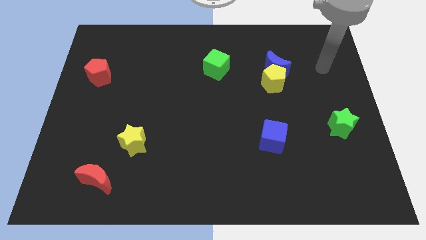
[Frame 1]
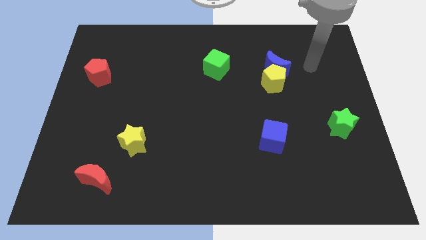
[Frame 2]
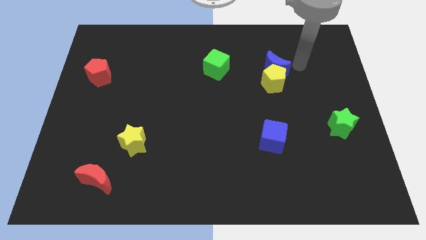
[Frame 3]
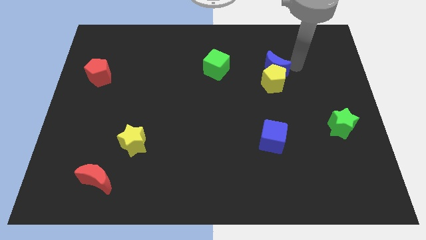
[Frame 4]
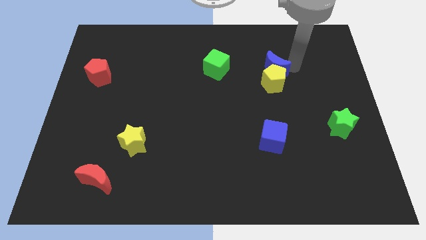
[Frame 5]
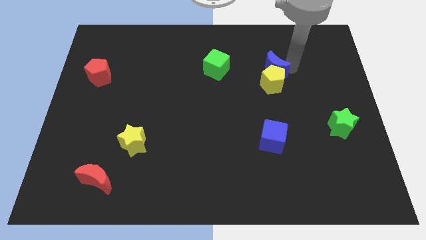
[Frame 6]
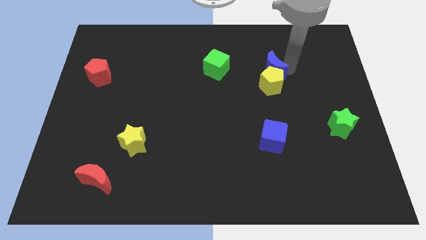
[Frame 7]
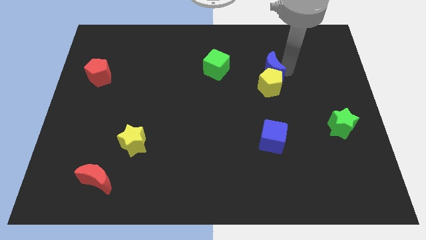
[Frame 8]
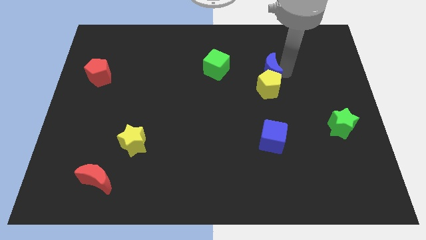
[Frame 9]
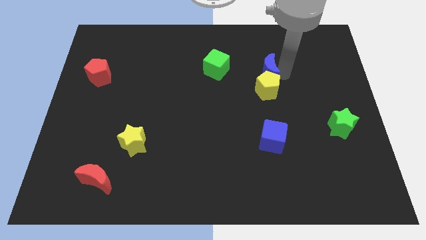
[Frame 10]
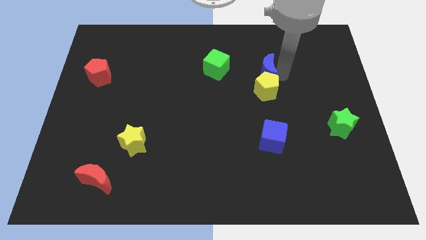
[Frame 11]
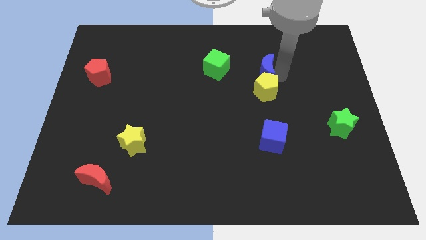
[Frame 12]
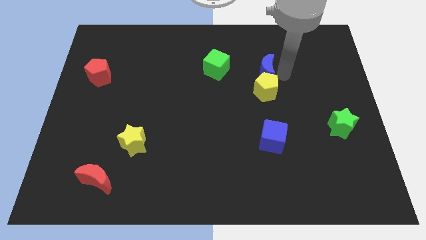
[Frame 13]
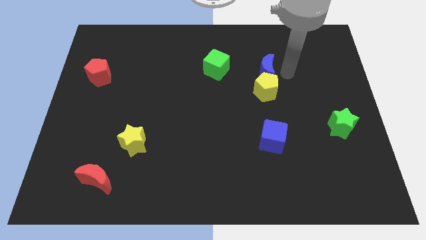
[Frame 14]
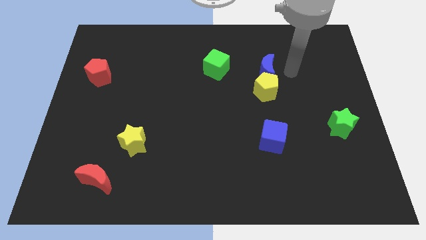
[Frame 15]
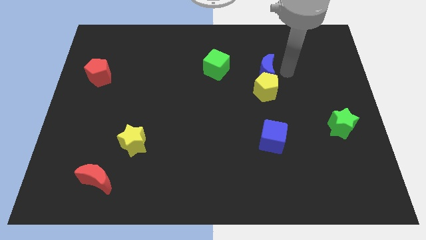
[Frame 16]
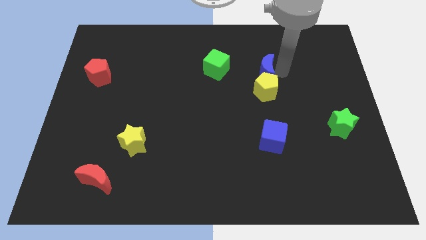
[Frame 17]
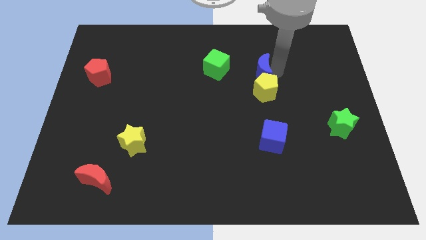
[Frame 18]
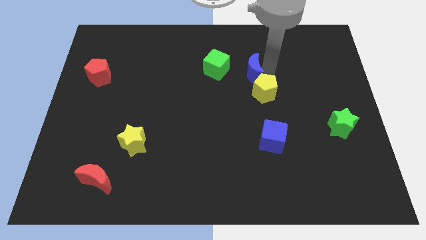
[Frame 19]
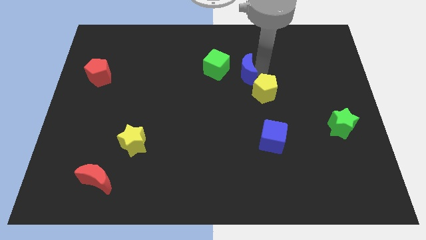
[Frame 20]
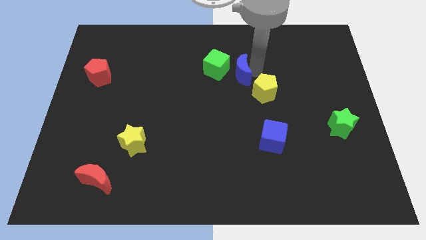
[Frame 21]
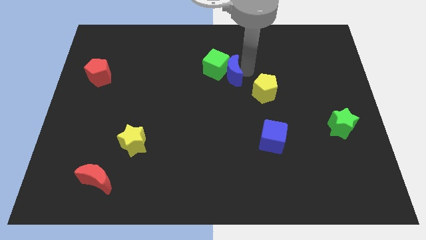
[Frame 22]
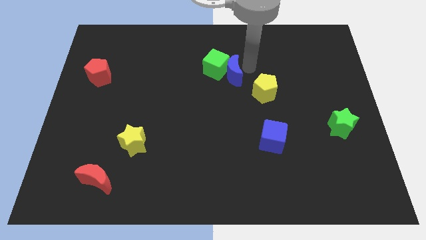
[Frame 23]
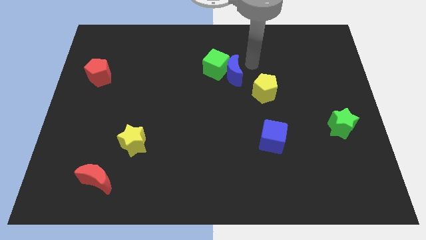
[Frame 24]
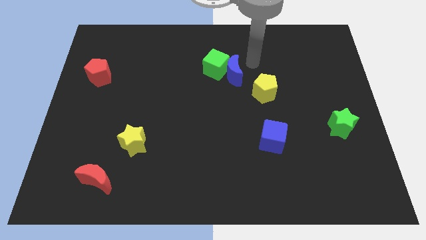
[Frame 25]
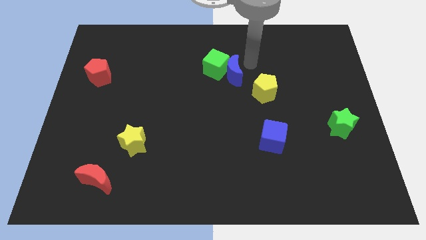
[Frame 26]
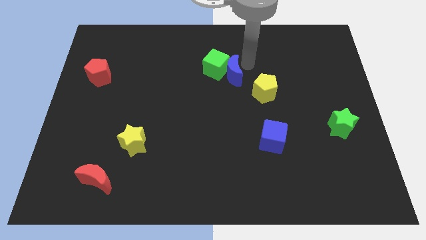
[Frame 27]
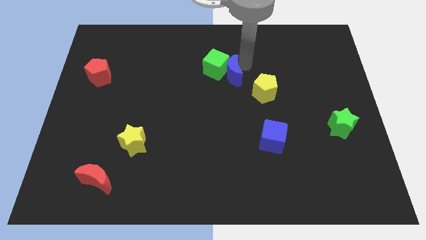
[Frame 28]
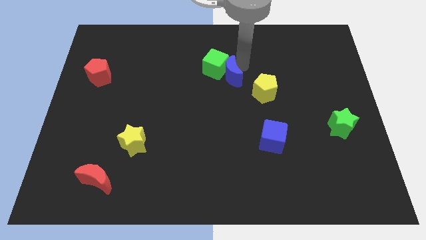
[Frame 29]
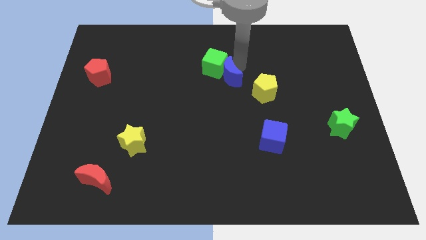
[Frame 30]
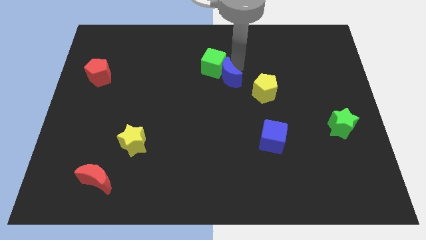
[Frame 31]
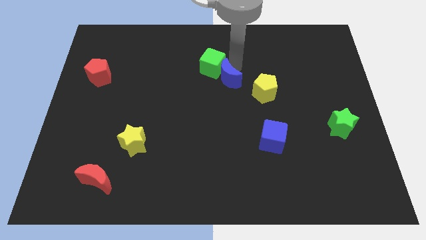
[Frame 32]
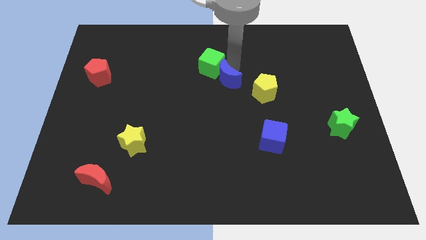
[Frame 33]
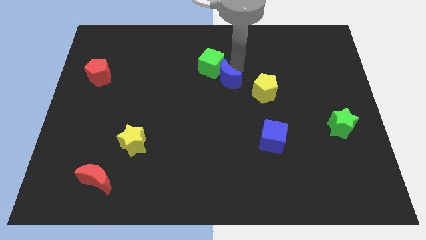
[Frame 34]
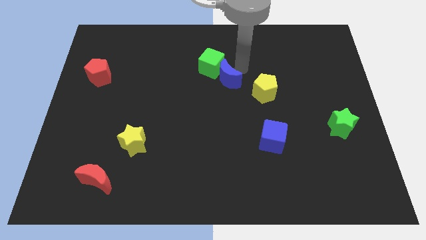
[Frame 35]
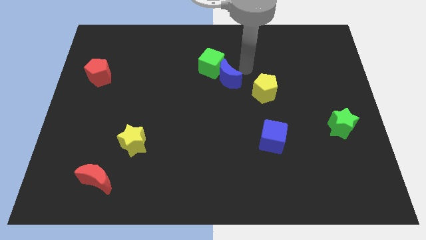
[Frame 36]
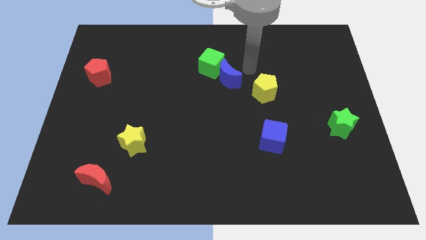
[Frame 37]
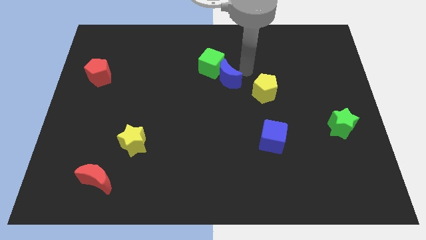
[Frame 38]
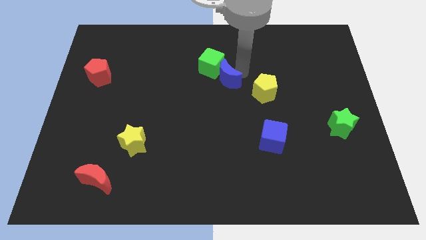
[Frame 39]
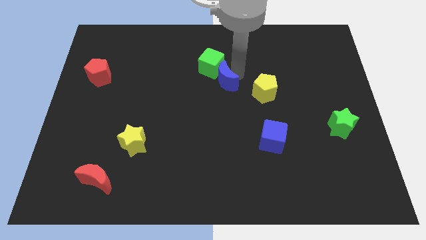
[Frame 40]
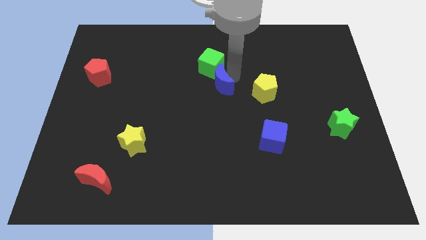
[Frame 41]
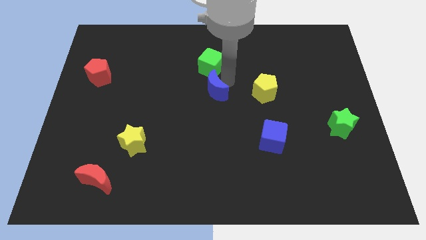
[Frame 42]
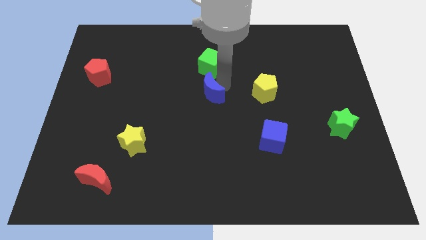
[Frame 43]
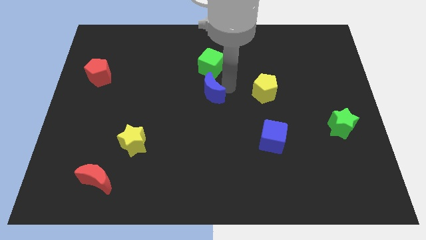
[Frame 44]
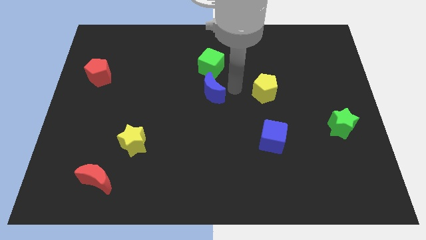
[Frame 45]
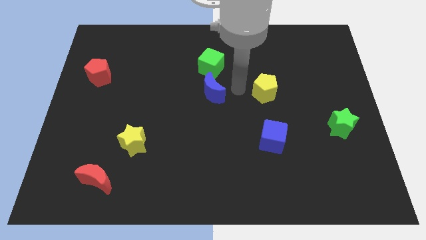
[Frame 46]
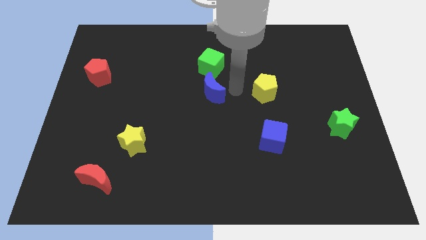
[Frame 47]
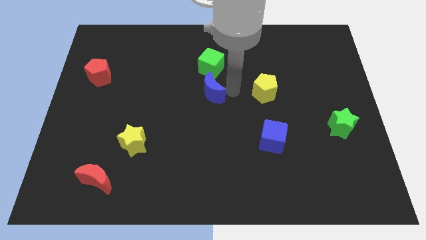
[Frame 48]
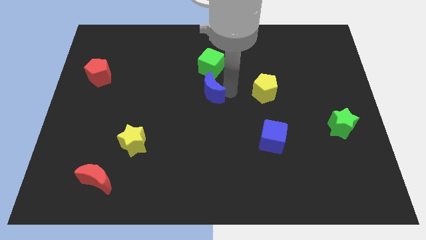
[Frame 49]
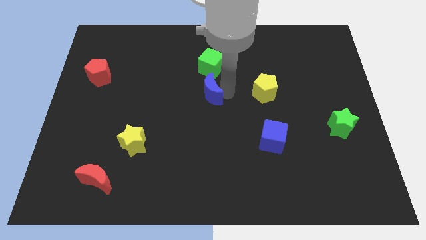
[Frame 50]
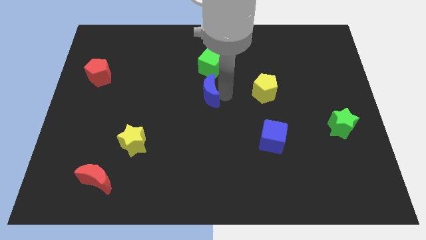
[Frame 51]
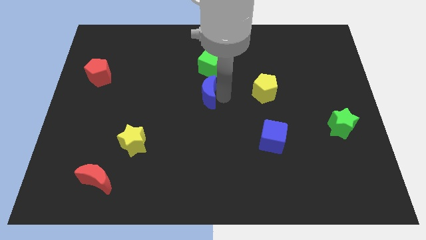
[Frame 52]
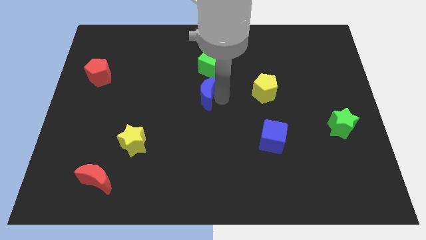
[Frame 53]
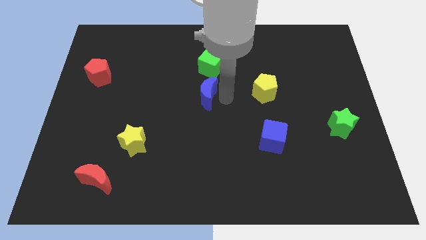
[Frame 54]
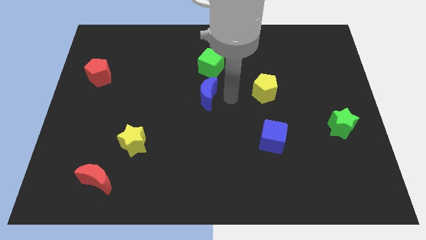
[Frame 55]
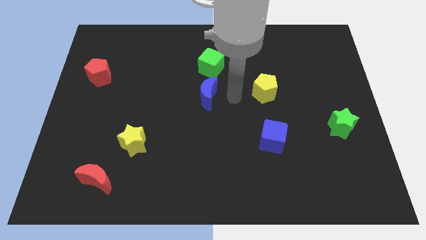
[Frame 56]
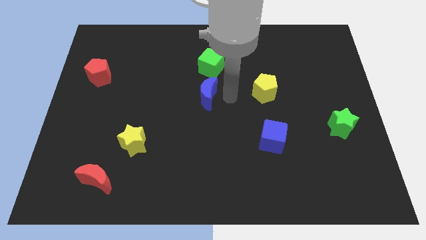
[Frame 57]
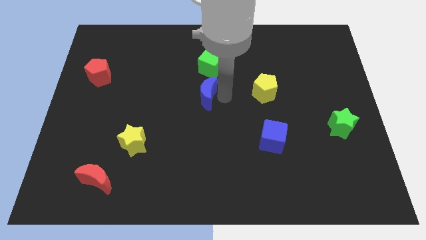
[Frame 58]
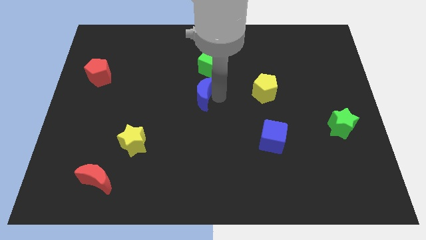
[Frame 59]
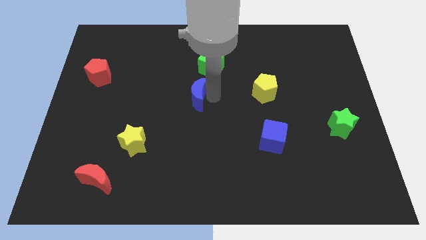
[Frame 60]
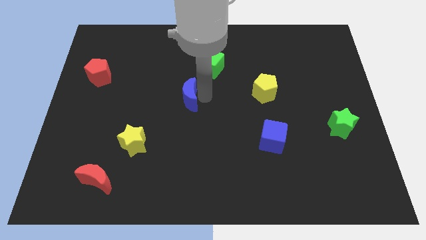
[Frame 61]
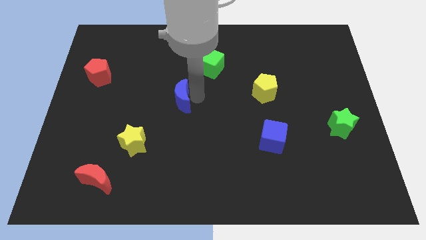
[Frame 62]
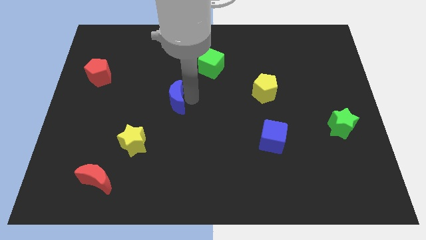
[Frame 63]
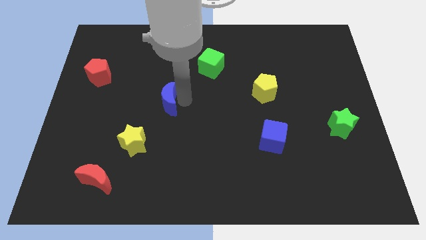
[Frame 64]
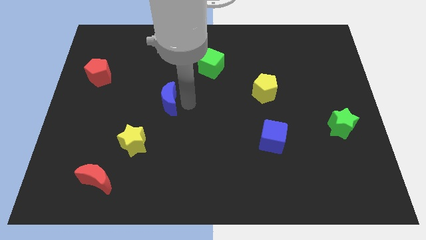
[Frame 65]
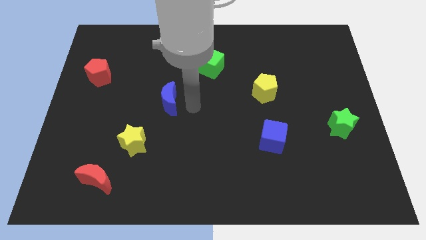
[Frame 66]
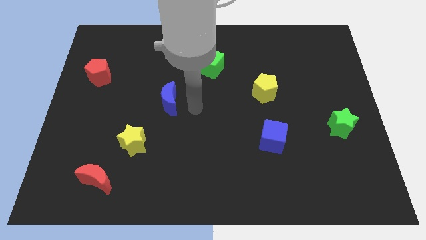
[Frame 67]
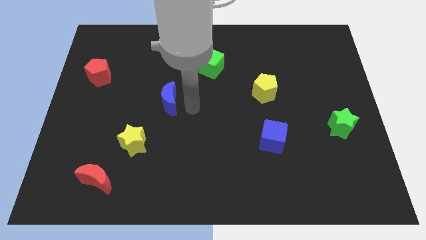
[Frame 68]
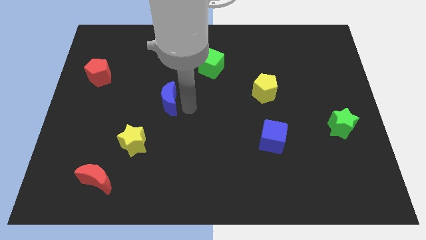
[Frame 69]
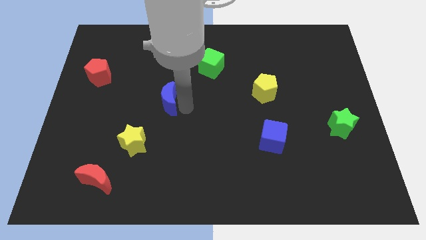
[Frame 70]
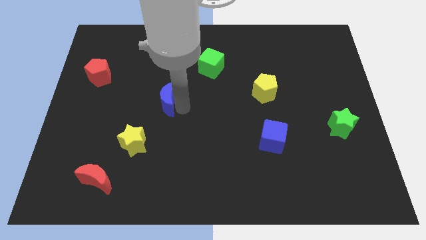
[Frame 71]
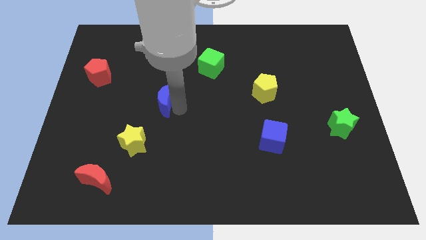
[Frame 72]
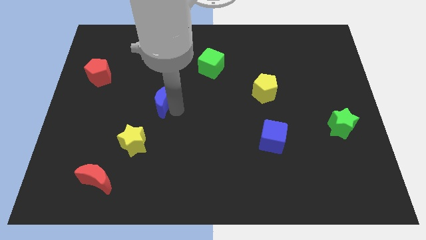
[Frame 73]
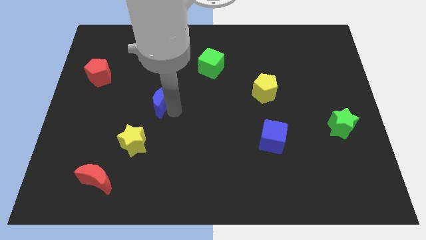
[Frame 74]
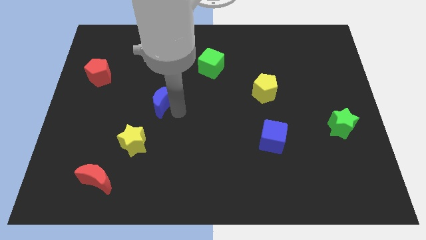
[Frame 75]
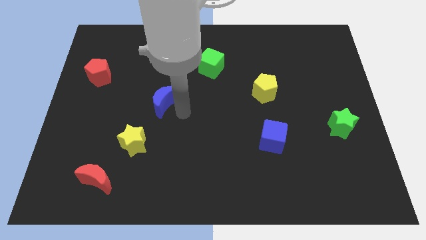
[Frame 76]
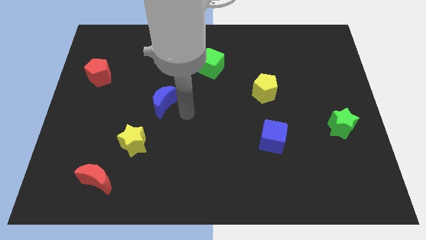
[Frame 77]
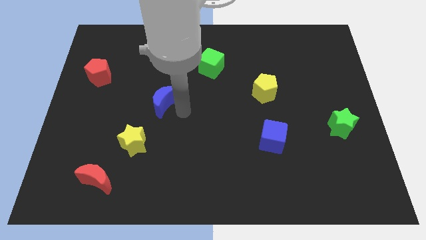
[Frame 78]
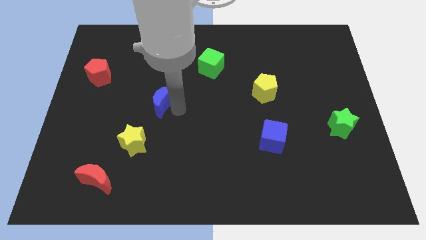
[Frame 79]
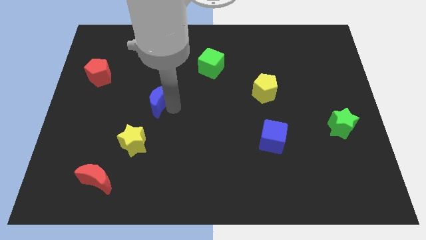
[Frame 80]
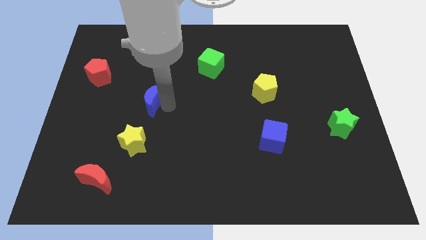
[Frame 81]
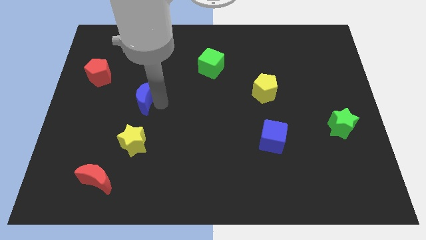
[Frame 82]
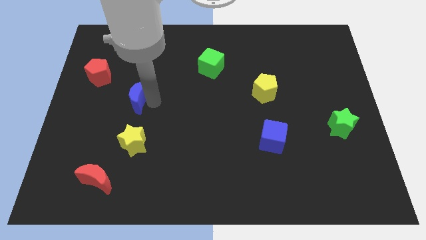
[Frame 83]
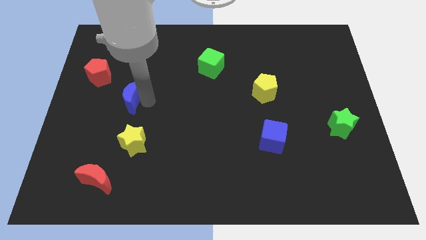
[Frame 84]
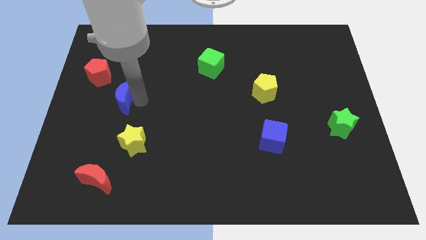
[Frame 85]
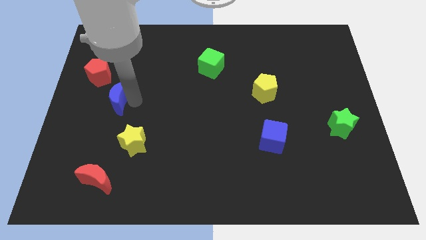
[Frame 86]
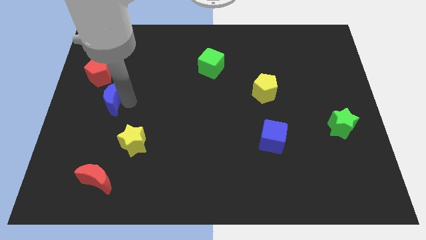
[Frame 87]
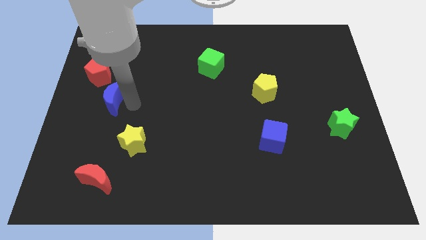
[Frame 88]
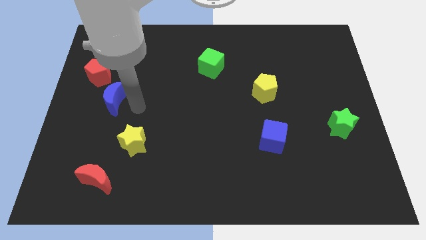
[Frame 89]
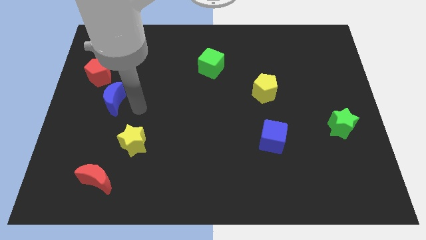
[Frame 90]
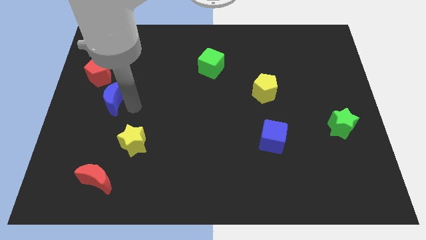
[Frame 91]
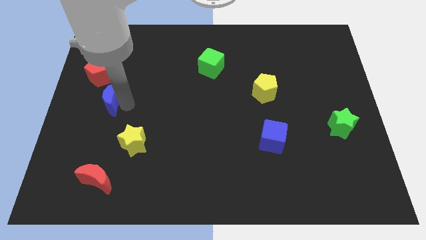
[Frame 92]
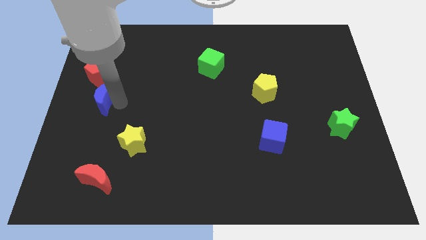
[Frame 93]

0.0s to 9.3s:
push the blue moon to the center left
